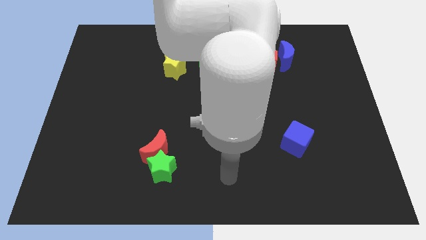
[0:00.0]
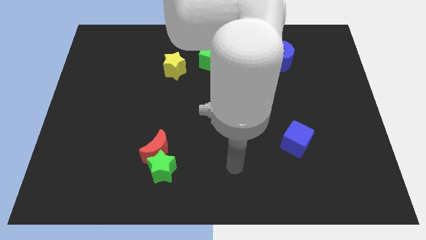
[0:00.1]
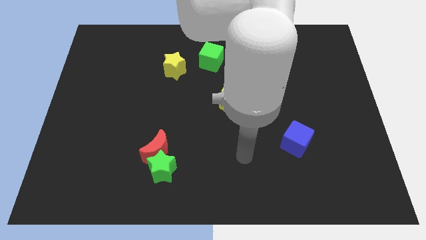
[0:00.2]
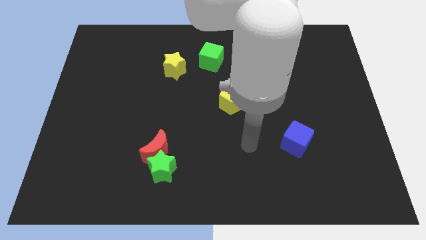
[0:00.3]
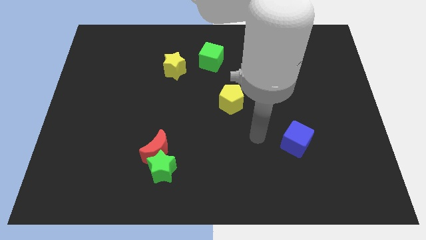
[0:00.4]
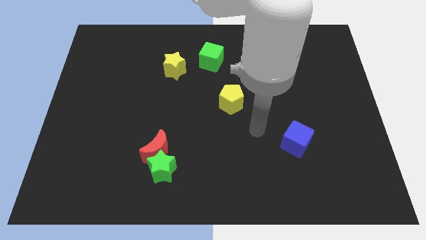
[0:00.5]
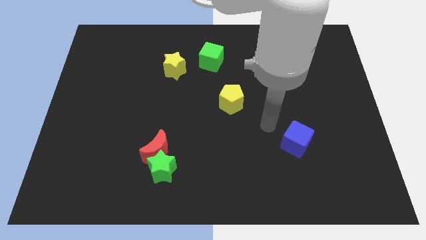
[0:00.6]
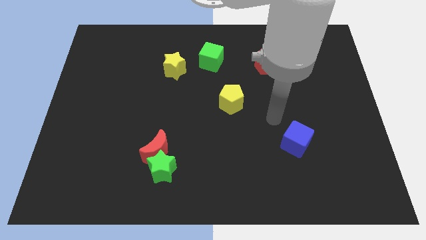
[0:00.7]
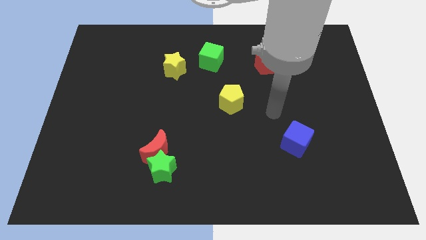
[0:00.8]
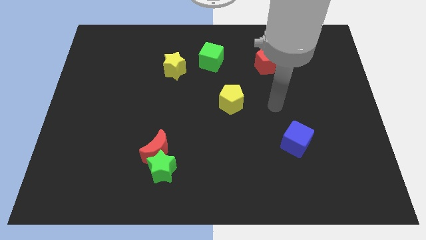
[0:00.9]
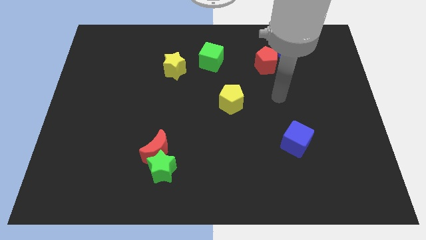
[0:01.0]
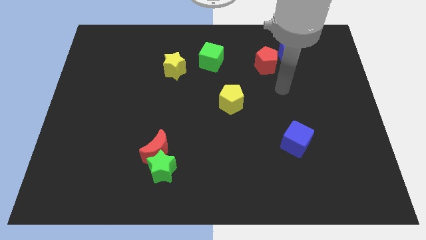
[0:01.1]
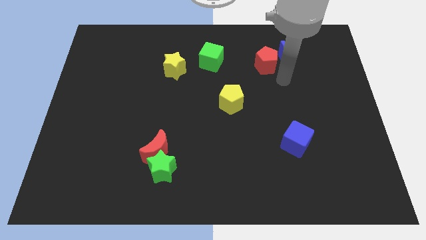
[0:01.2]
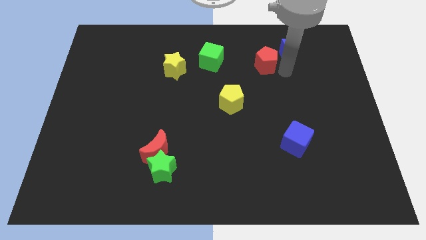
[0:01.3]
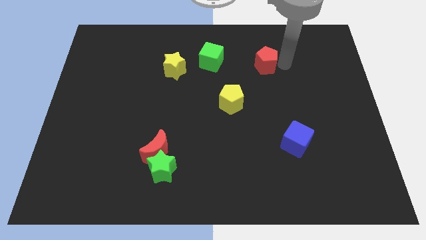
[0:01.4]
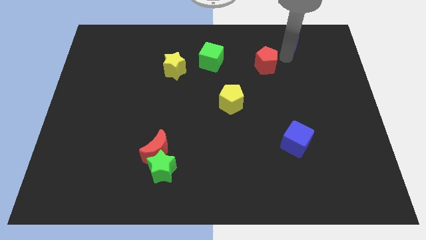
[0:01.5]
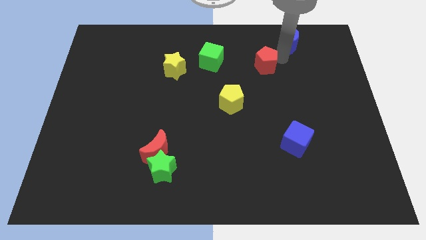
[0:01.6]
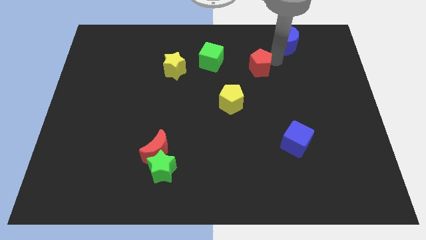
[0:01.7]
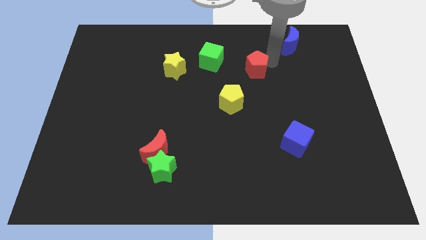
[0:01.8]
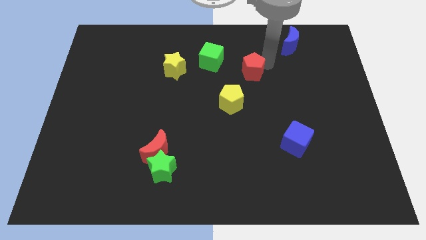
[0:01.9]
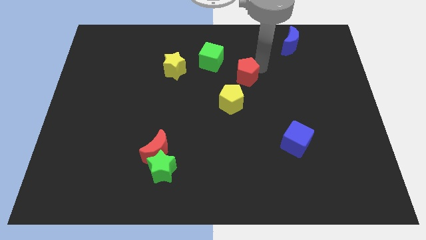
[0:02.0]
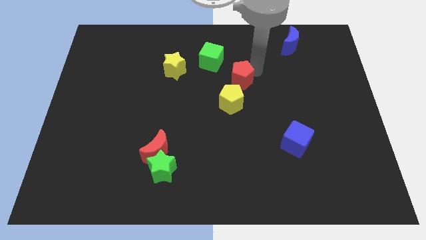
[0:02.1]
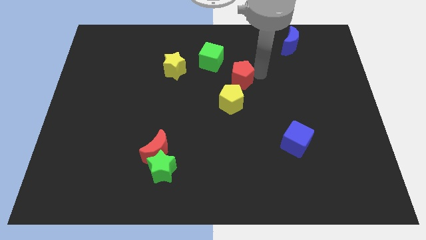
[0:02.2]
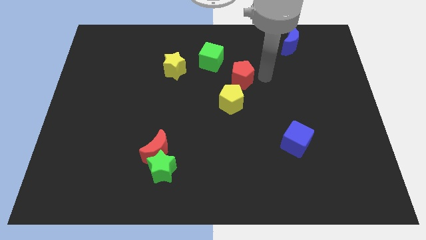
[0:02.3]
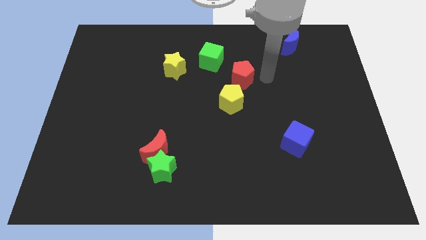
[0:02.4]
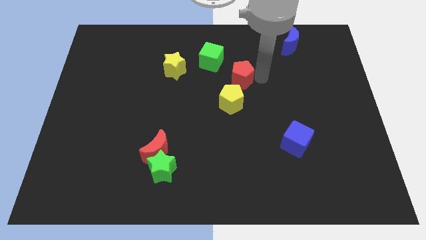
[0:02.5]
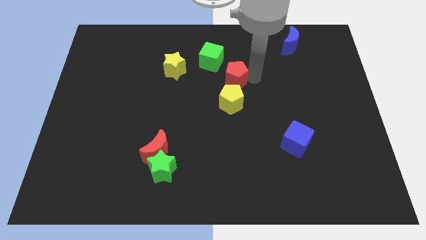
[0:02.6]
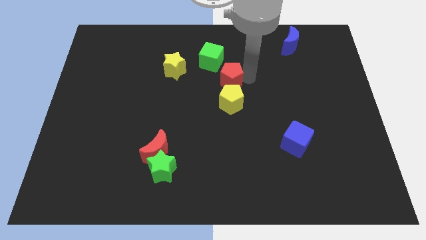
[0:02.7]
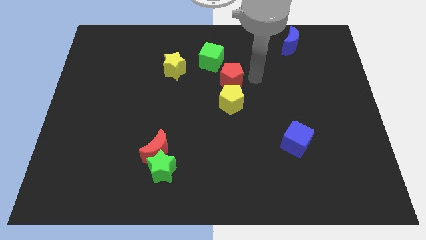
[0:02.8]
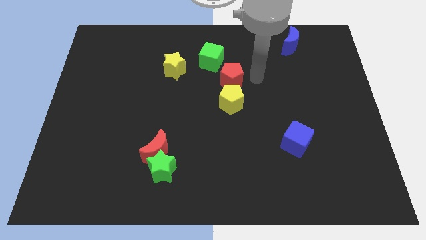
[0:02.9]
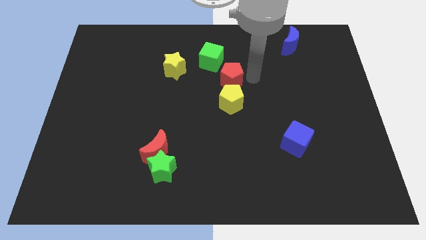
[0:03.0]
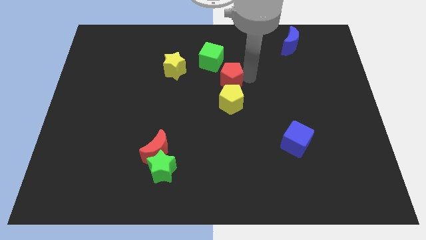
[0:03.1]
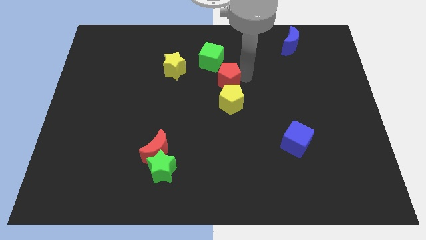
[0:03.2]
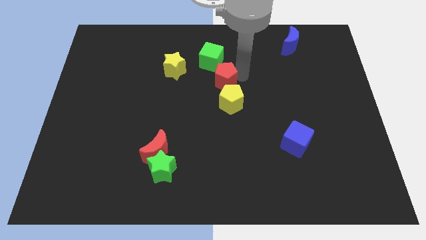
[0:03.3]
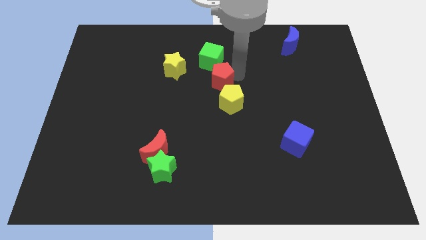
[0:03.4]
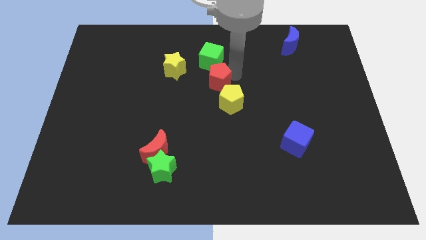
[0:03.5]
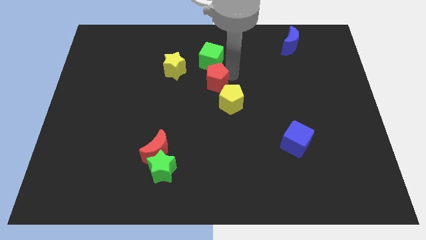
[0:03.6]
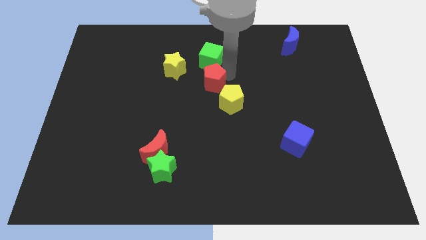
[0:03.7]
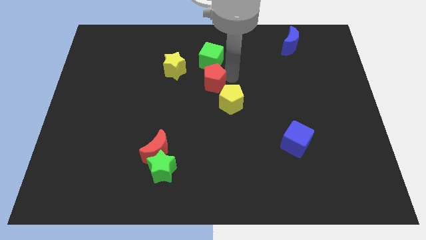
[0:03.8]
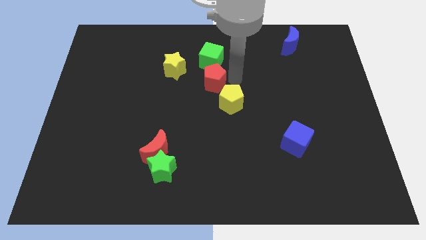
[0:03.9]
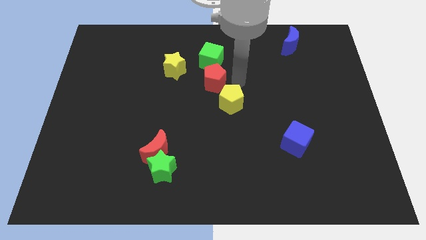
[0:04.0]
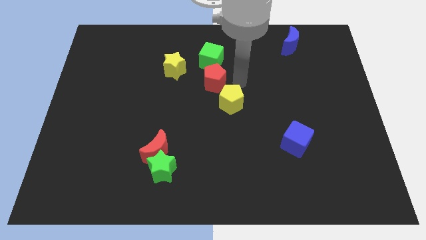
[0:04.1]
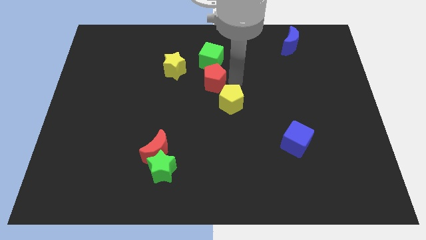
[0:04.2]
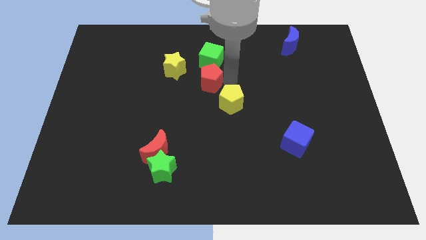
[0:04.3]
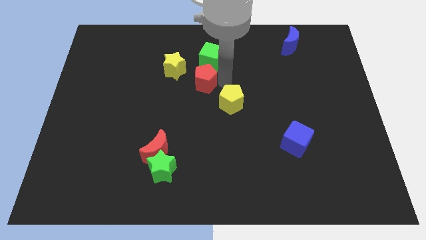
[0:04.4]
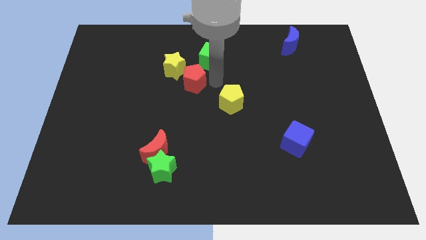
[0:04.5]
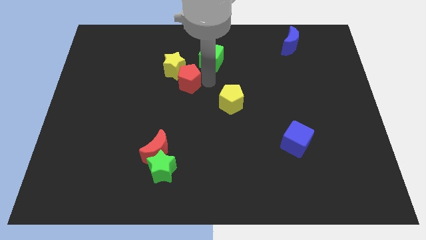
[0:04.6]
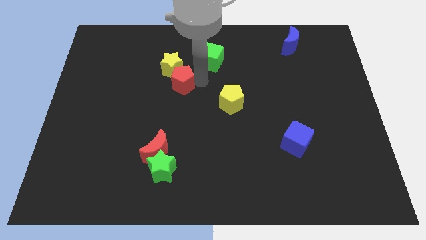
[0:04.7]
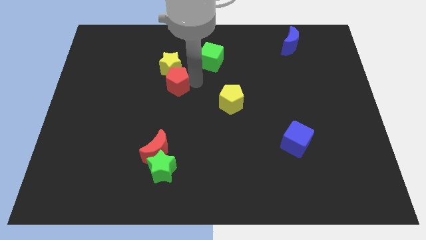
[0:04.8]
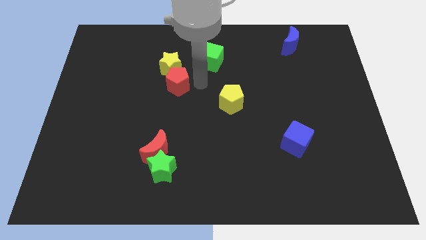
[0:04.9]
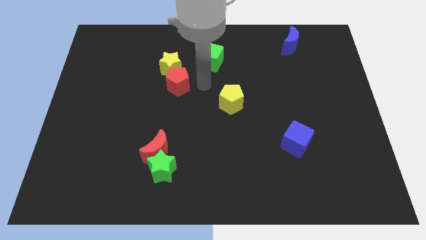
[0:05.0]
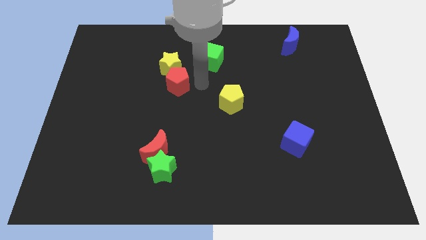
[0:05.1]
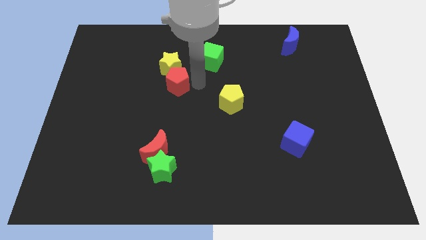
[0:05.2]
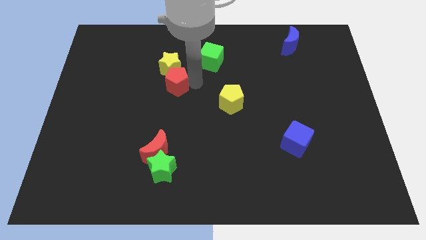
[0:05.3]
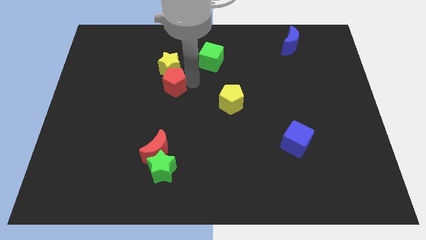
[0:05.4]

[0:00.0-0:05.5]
put the red pentagon diagonally down and to the left of the yellow star

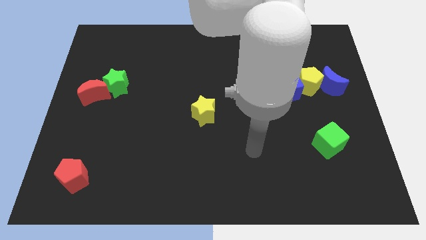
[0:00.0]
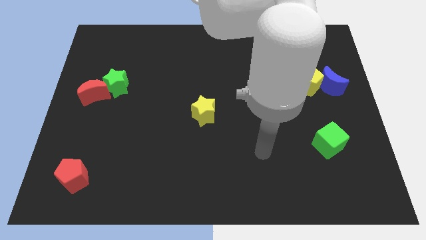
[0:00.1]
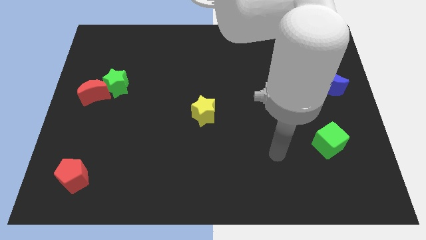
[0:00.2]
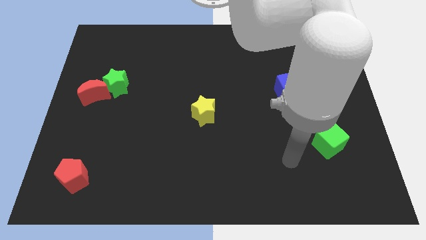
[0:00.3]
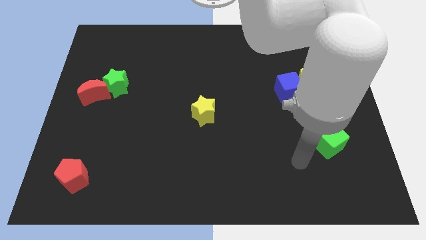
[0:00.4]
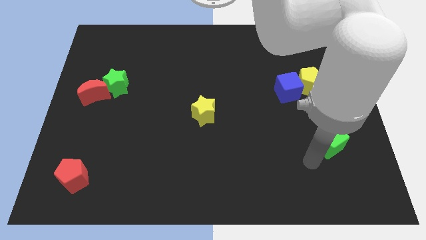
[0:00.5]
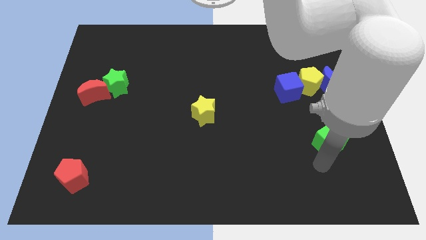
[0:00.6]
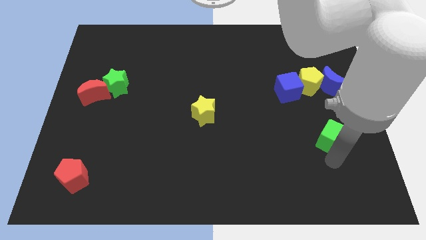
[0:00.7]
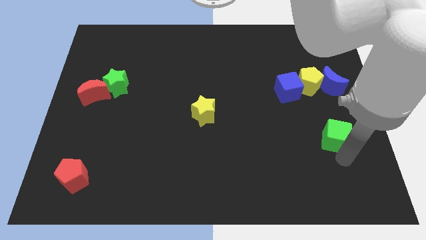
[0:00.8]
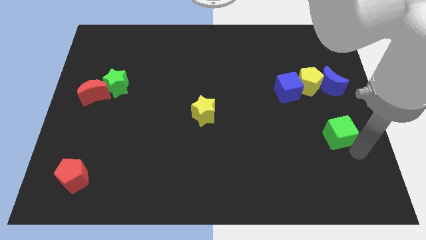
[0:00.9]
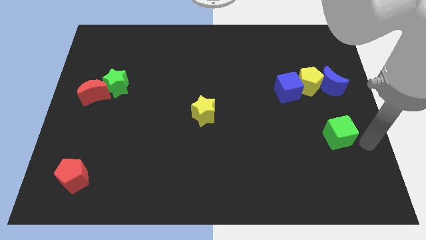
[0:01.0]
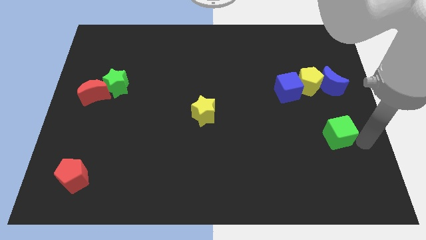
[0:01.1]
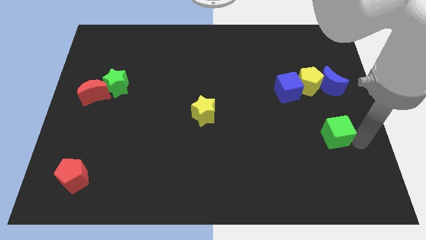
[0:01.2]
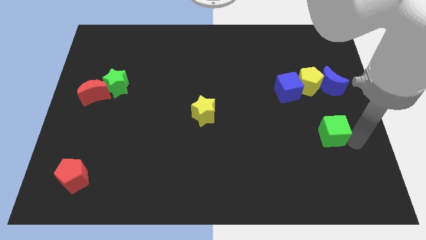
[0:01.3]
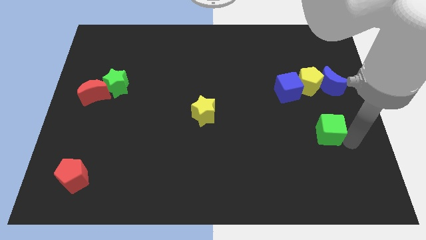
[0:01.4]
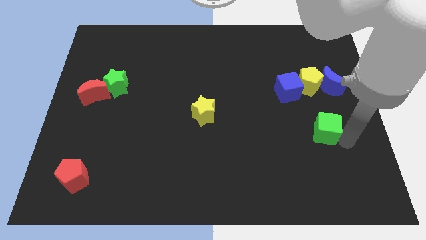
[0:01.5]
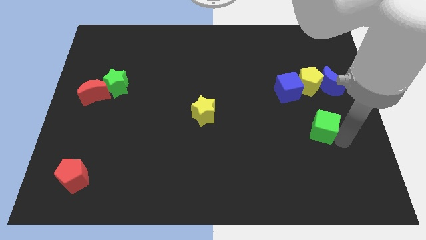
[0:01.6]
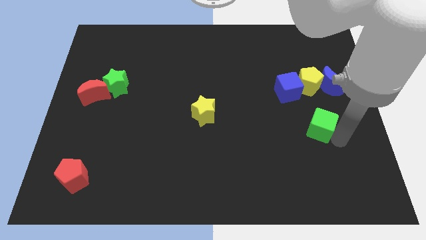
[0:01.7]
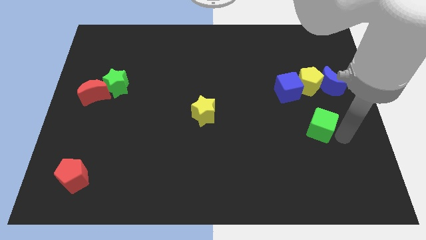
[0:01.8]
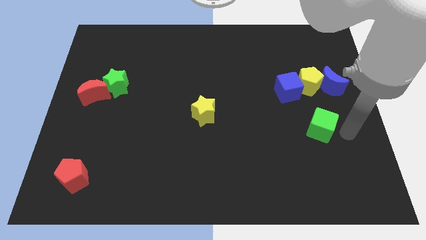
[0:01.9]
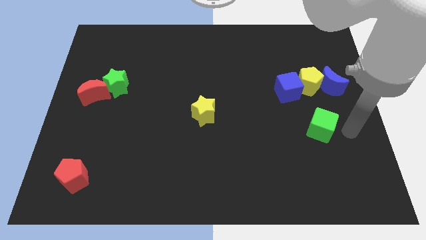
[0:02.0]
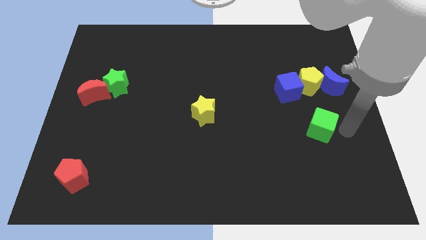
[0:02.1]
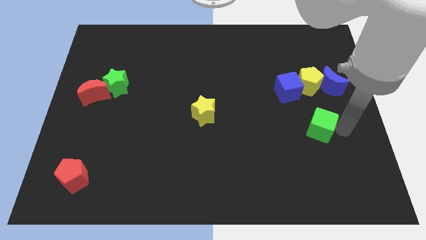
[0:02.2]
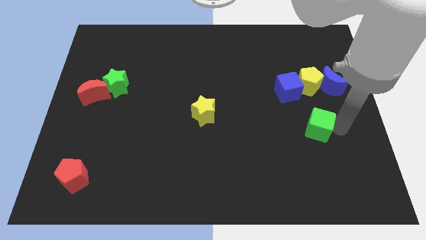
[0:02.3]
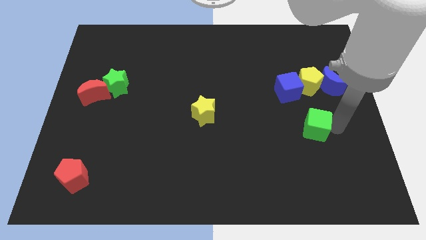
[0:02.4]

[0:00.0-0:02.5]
push the green cube to the bottom of the blue cube

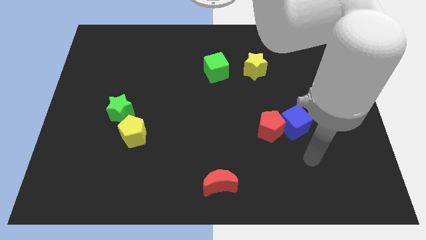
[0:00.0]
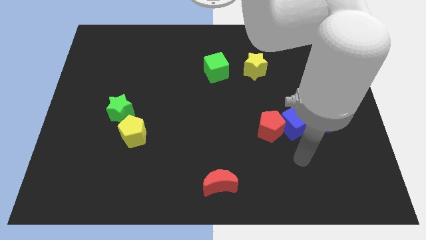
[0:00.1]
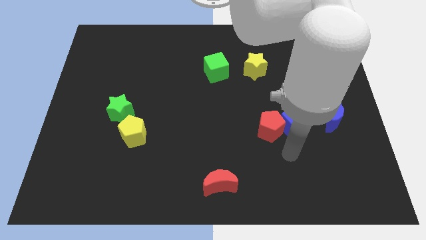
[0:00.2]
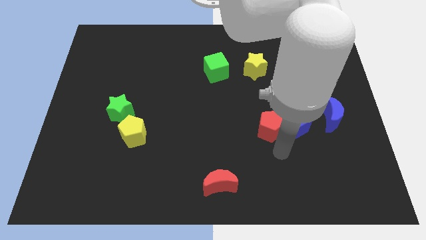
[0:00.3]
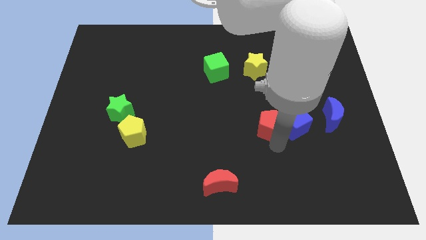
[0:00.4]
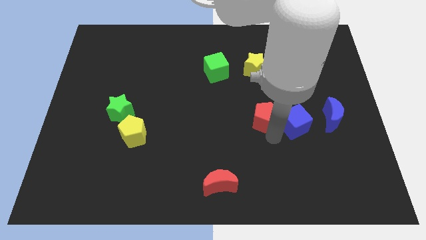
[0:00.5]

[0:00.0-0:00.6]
slide the red pentagon to the bottom of the yellow star
